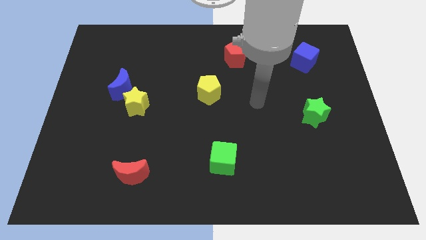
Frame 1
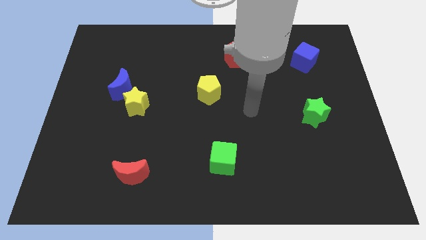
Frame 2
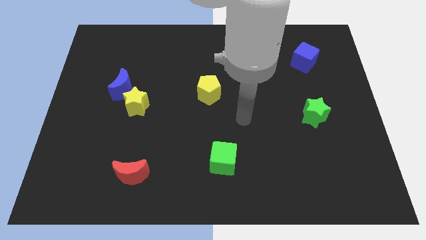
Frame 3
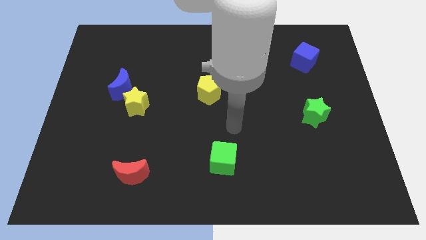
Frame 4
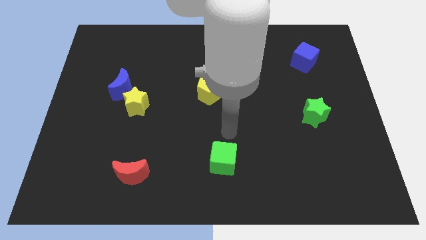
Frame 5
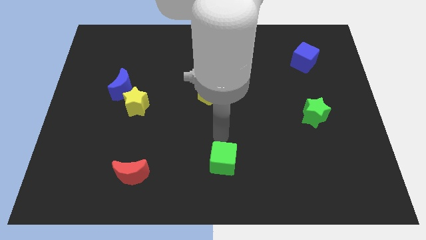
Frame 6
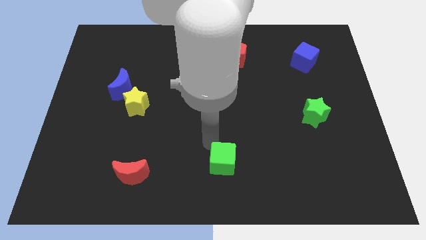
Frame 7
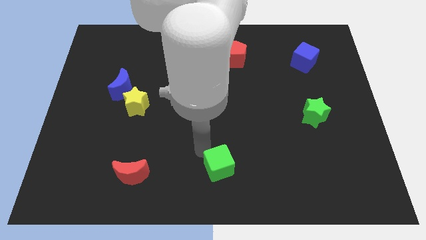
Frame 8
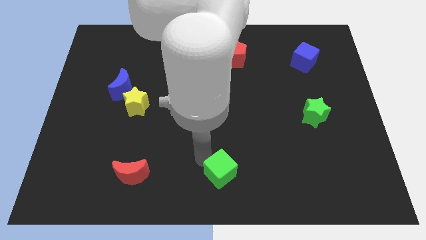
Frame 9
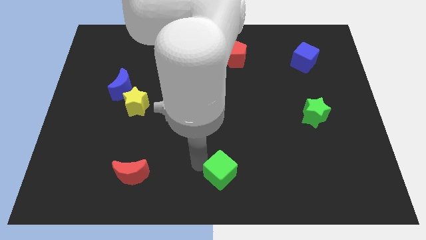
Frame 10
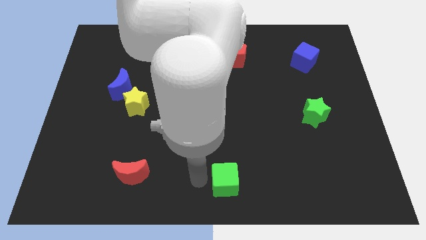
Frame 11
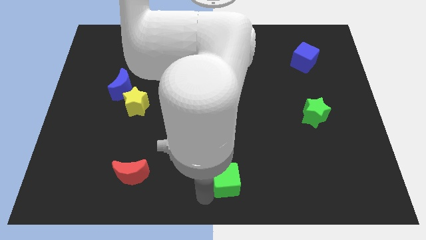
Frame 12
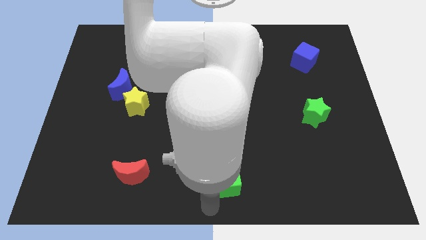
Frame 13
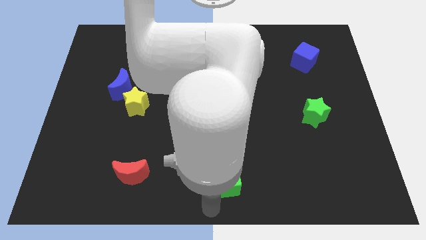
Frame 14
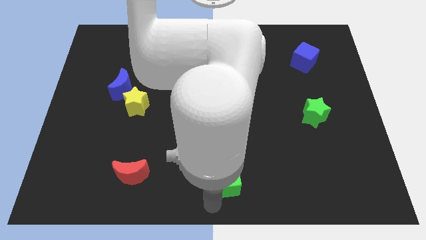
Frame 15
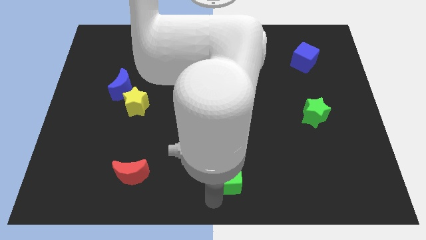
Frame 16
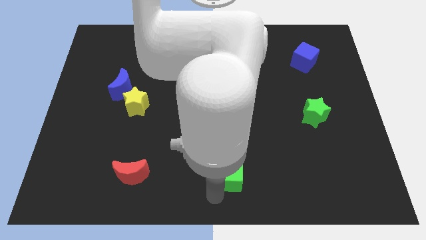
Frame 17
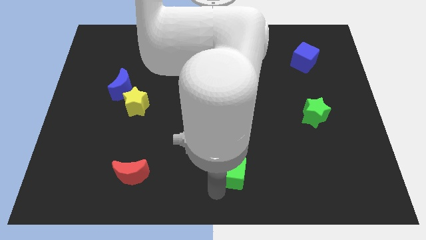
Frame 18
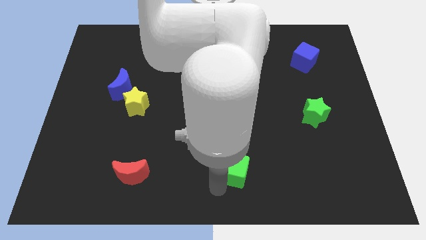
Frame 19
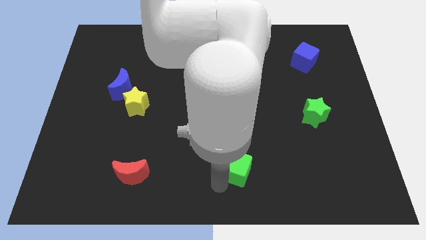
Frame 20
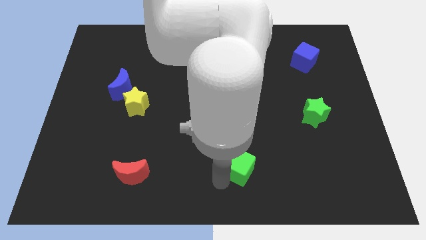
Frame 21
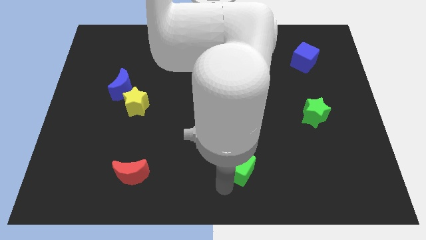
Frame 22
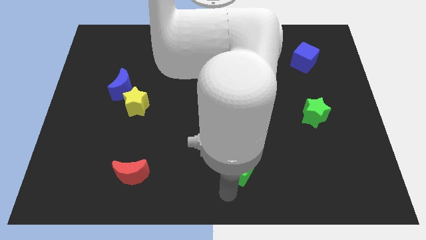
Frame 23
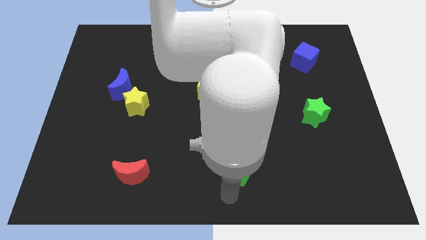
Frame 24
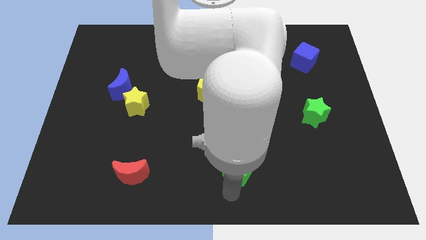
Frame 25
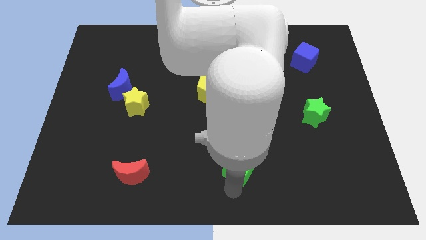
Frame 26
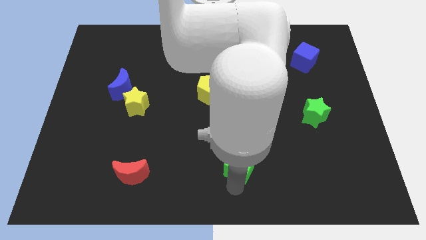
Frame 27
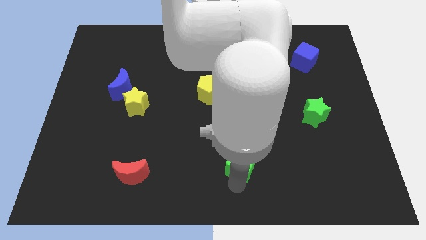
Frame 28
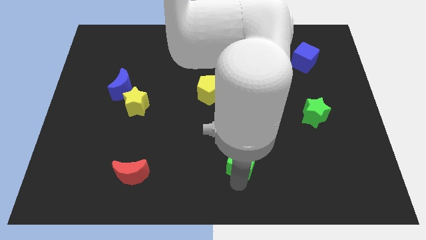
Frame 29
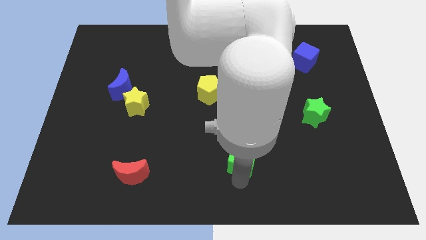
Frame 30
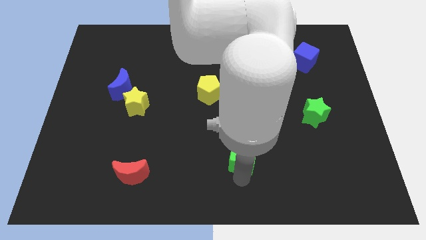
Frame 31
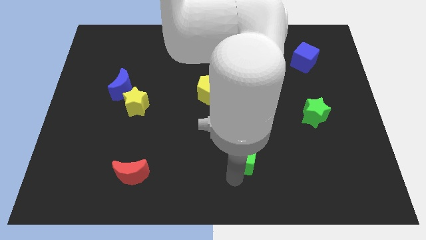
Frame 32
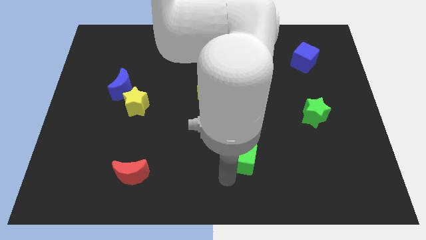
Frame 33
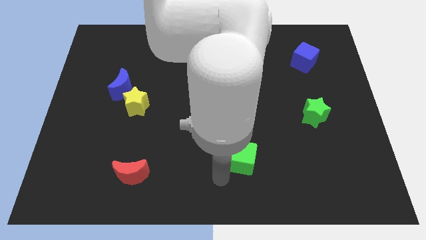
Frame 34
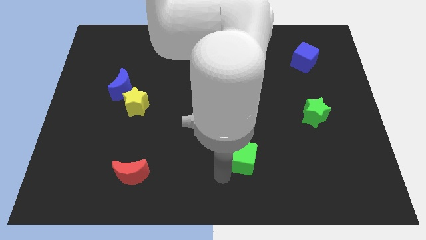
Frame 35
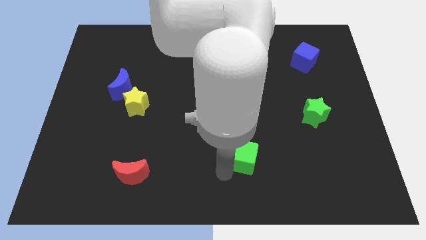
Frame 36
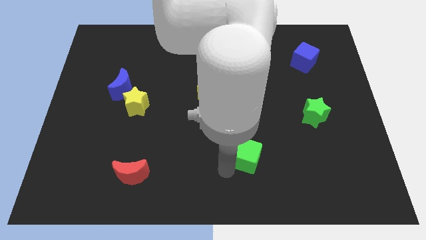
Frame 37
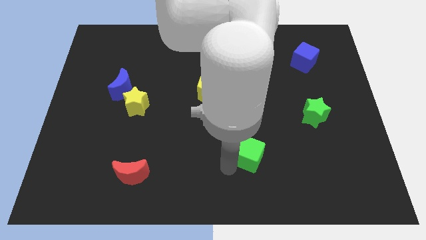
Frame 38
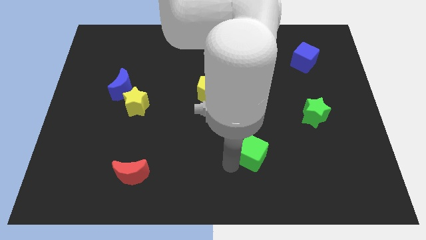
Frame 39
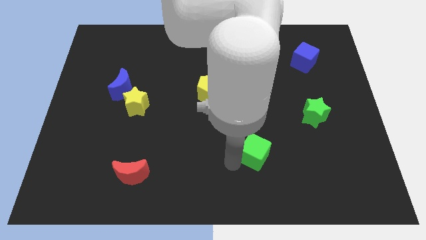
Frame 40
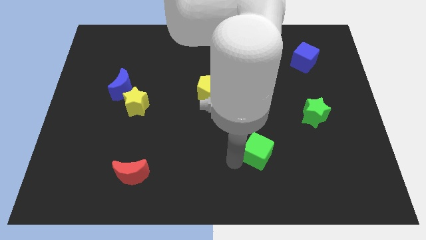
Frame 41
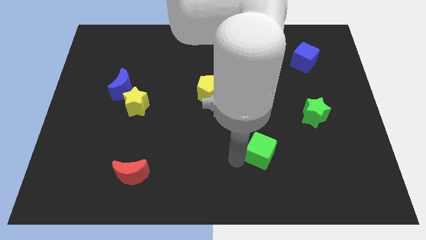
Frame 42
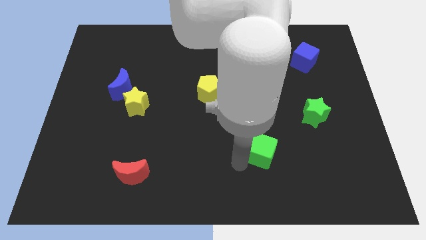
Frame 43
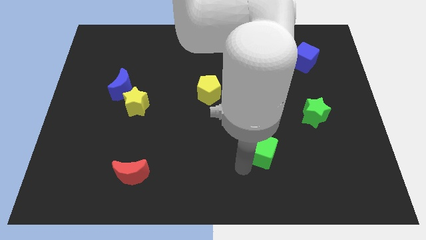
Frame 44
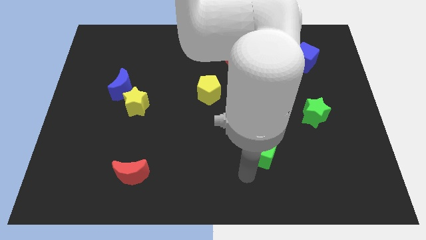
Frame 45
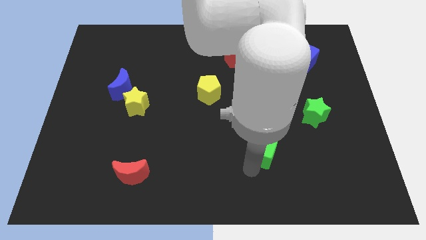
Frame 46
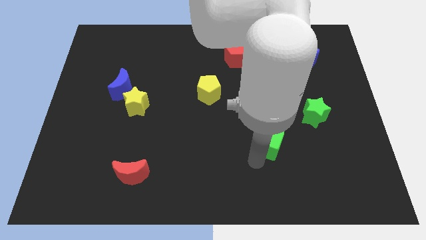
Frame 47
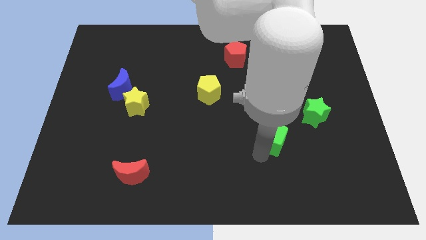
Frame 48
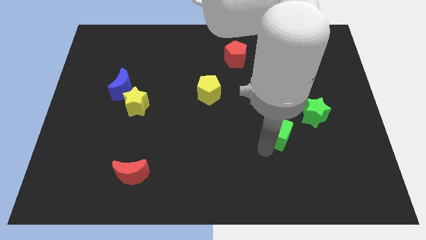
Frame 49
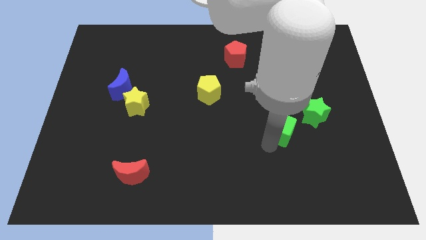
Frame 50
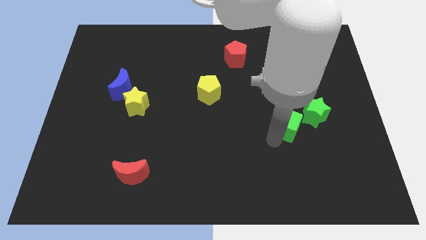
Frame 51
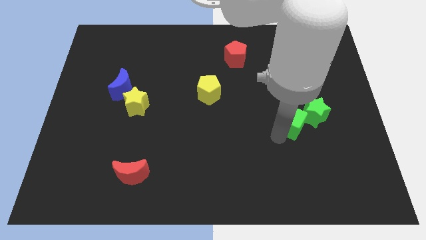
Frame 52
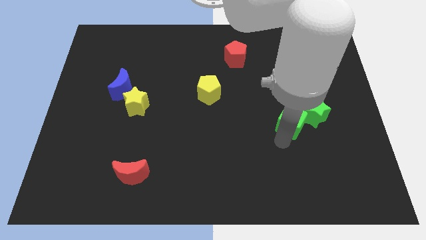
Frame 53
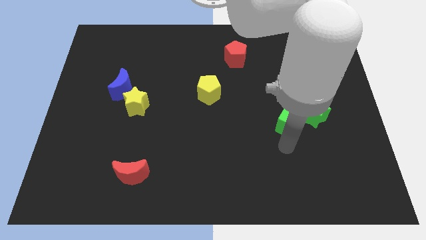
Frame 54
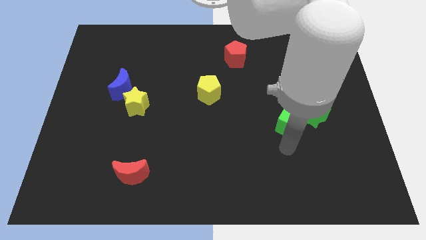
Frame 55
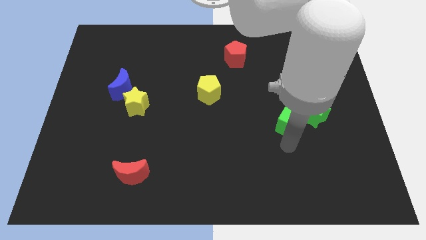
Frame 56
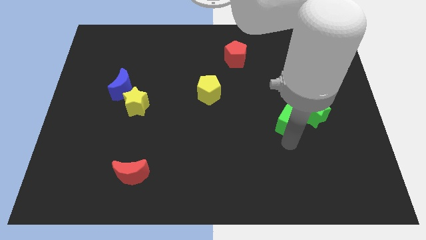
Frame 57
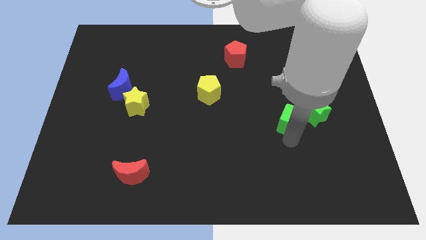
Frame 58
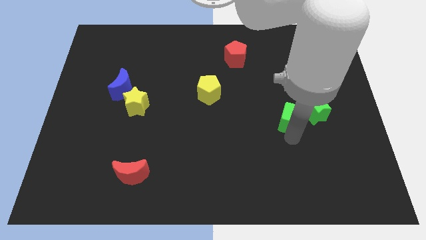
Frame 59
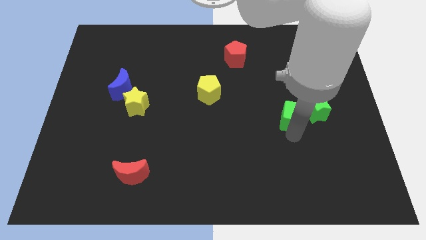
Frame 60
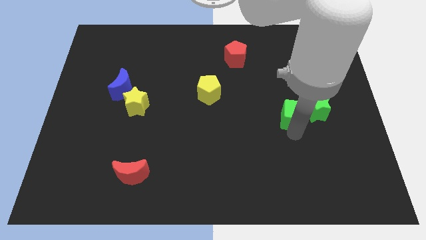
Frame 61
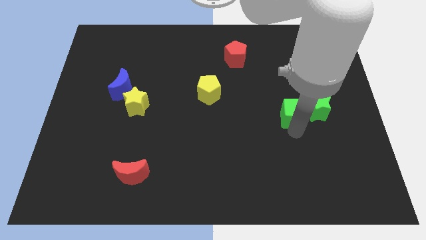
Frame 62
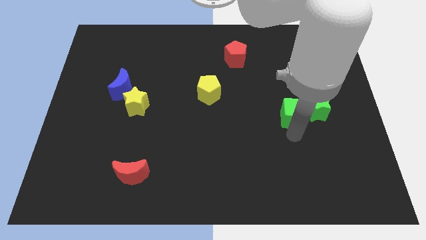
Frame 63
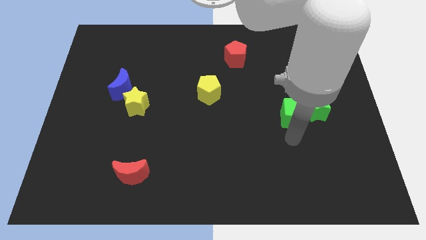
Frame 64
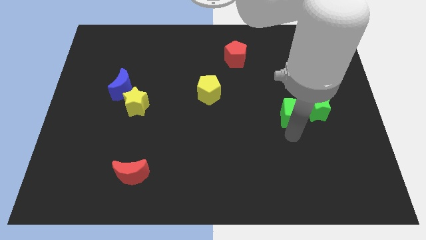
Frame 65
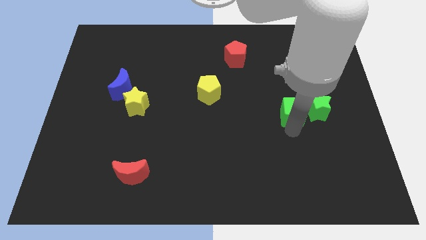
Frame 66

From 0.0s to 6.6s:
push the green cube up and right

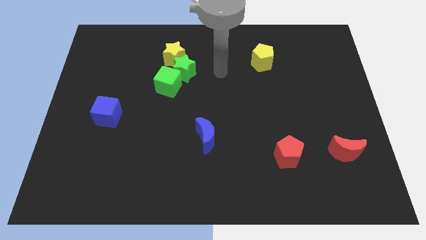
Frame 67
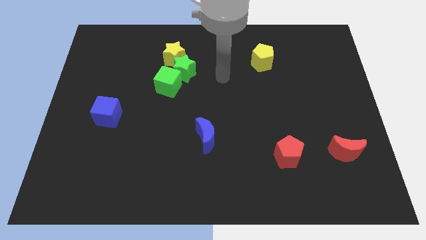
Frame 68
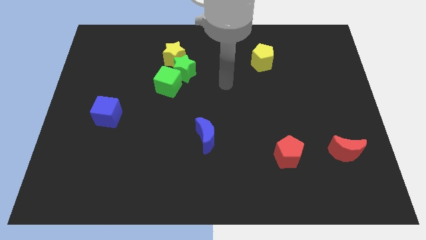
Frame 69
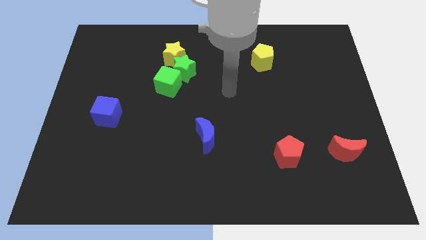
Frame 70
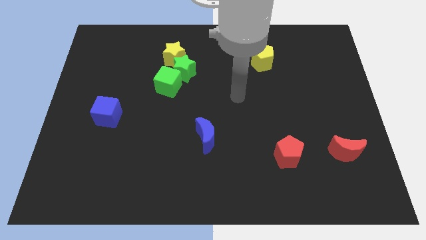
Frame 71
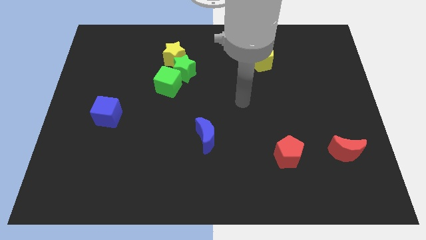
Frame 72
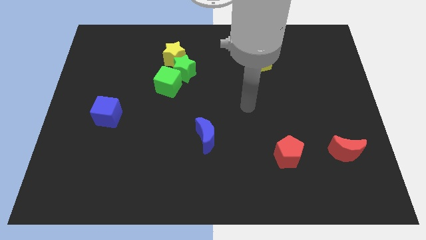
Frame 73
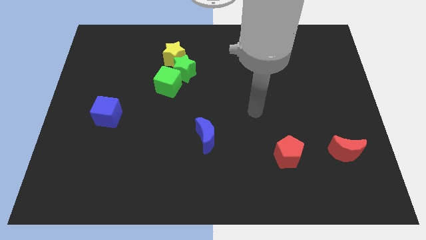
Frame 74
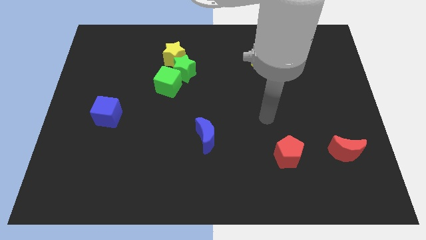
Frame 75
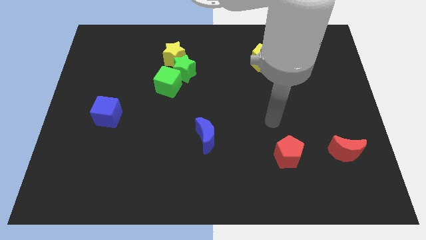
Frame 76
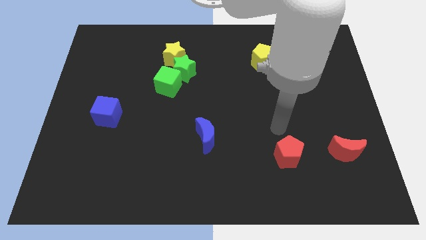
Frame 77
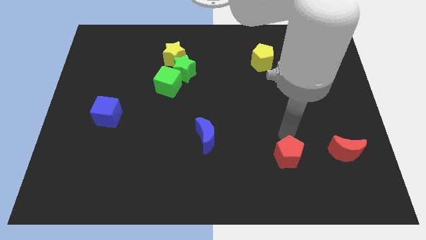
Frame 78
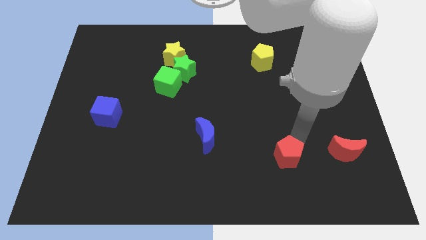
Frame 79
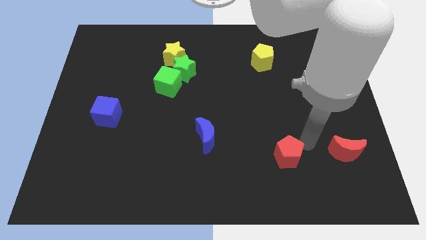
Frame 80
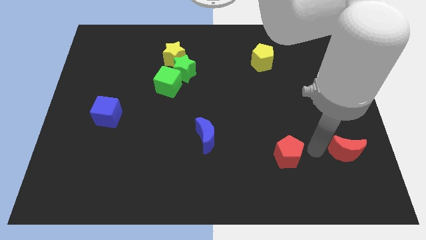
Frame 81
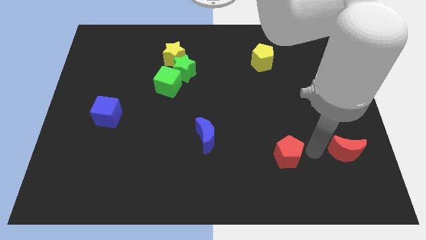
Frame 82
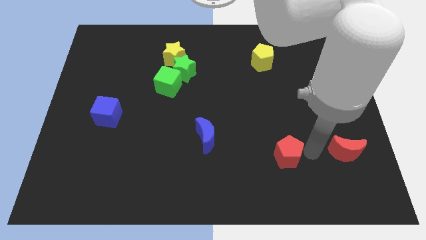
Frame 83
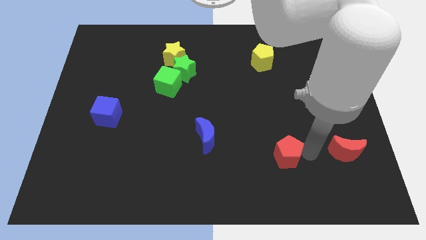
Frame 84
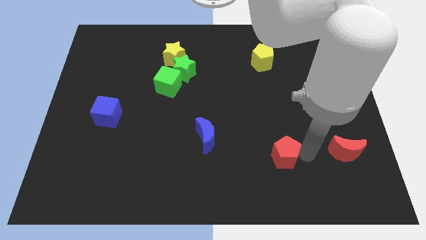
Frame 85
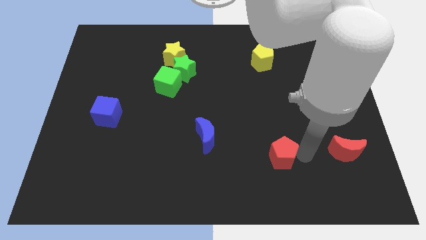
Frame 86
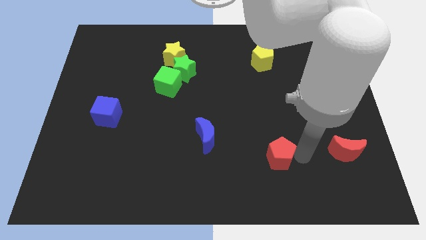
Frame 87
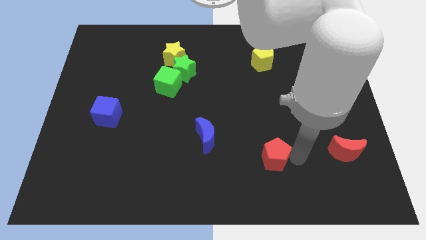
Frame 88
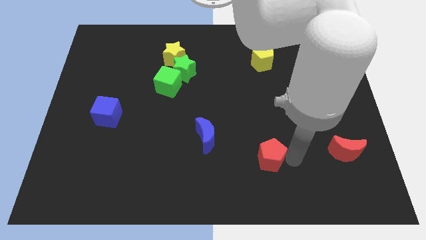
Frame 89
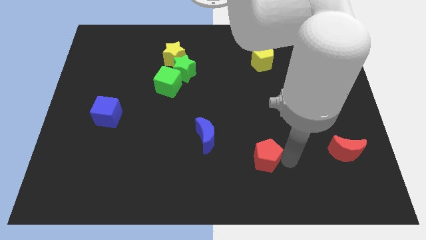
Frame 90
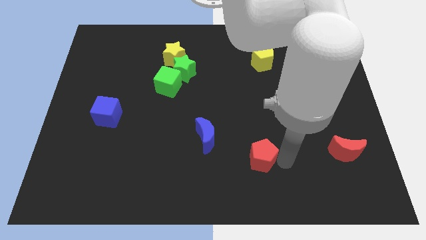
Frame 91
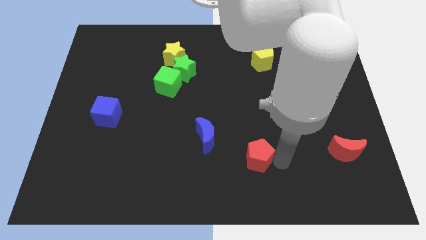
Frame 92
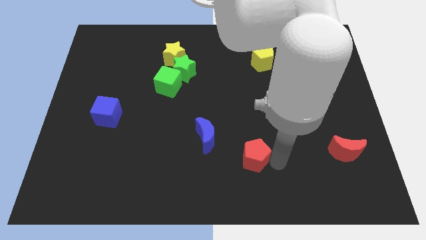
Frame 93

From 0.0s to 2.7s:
slightly push the red pentagon left
